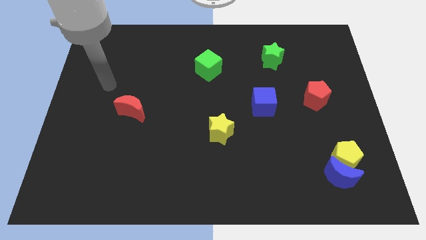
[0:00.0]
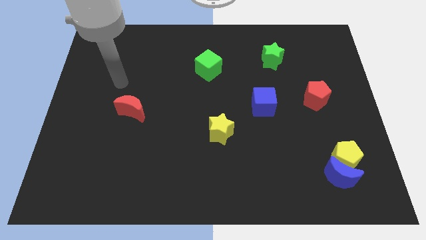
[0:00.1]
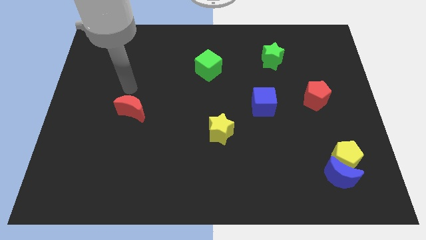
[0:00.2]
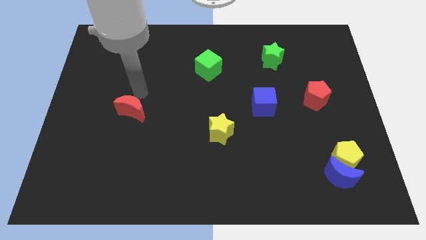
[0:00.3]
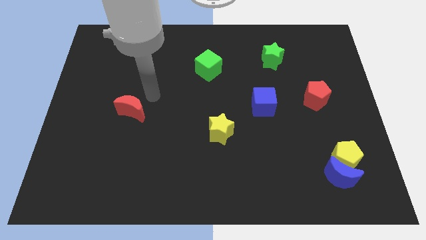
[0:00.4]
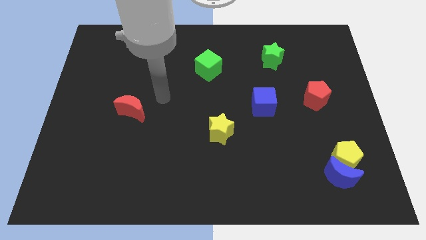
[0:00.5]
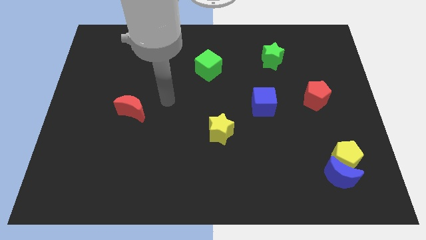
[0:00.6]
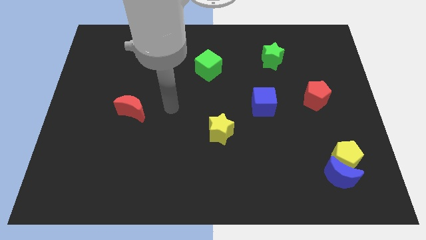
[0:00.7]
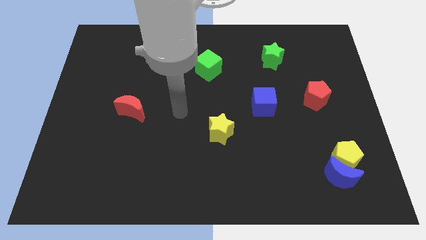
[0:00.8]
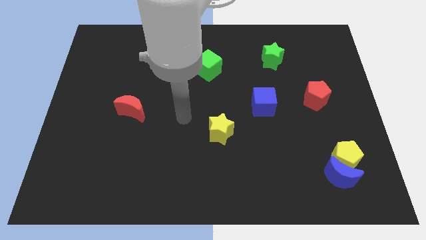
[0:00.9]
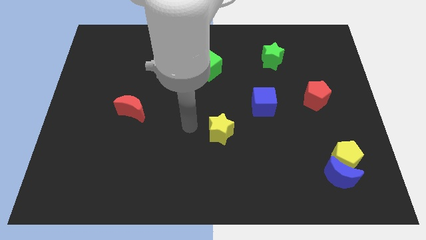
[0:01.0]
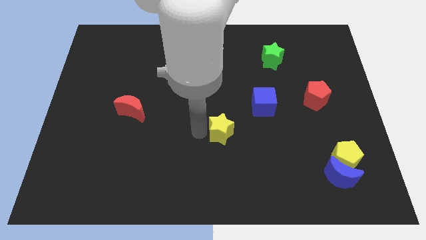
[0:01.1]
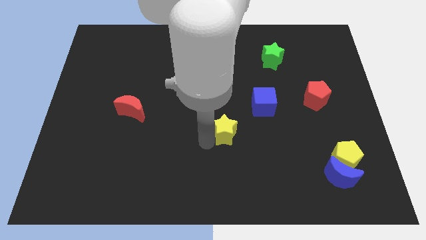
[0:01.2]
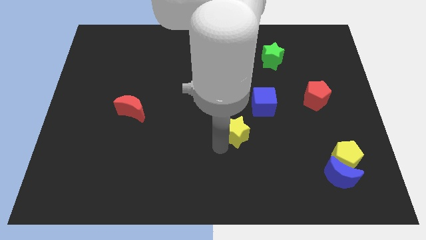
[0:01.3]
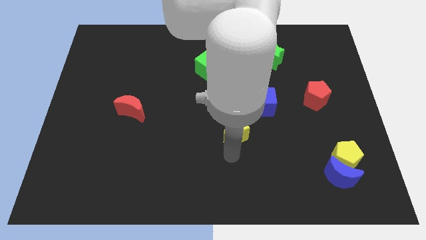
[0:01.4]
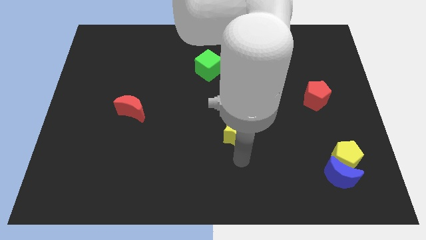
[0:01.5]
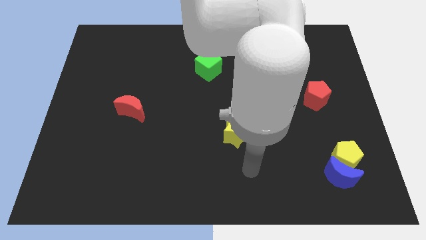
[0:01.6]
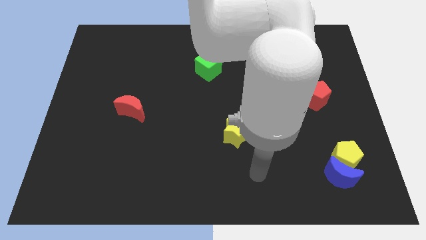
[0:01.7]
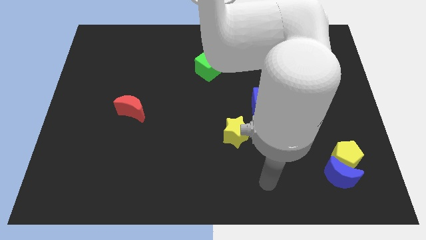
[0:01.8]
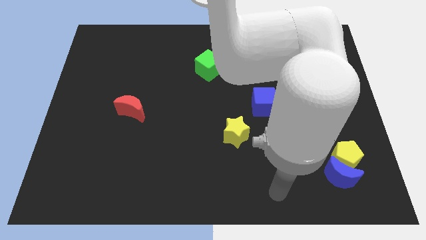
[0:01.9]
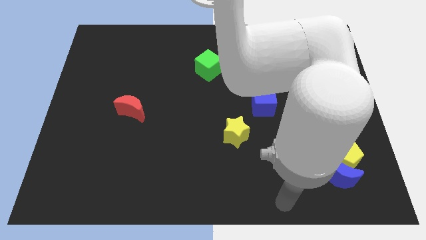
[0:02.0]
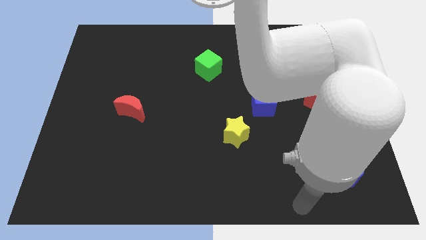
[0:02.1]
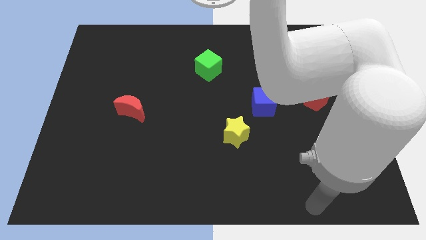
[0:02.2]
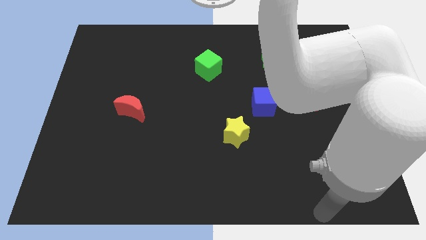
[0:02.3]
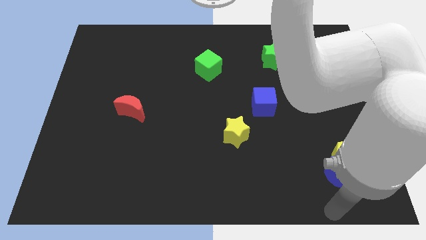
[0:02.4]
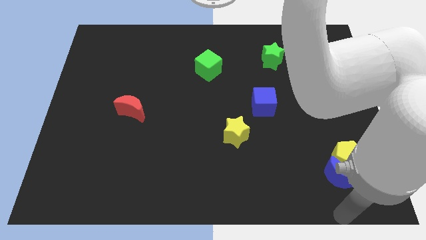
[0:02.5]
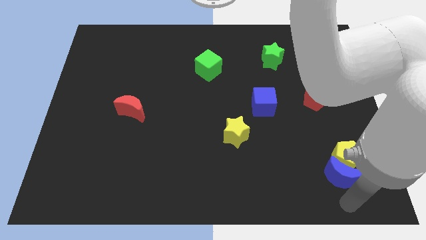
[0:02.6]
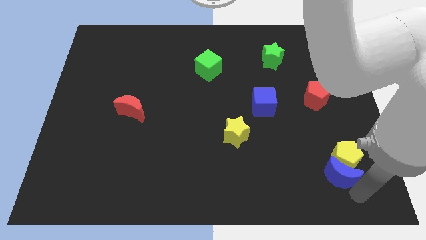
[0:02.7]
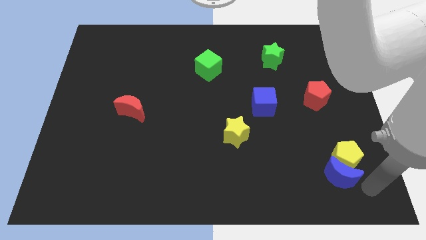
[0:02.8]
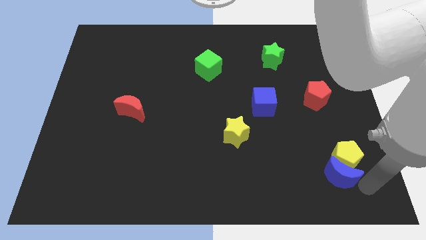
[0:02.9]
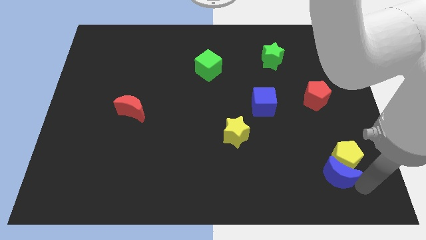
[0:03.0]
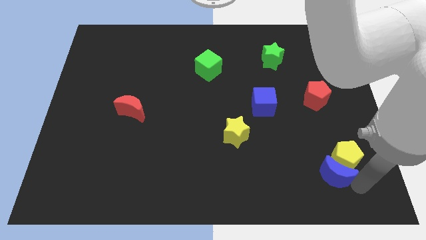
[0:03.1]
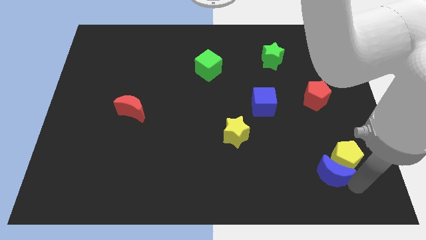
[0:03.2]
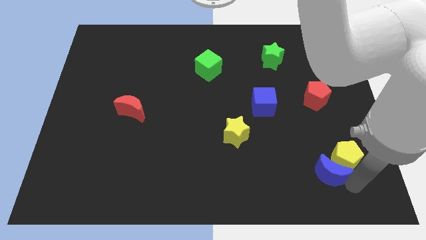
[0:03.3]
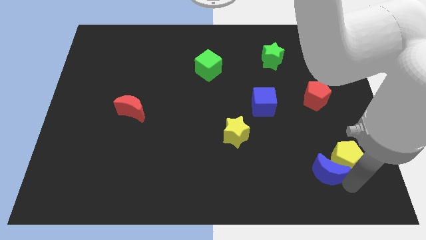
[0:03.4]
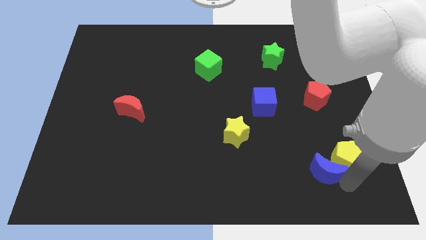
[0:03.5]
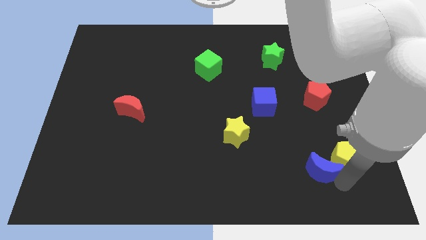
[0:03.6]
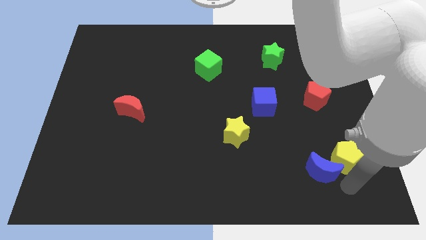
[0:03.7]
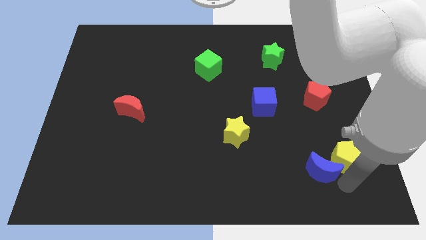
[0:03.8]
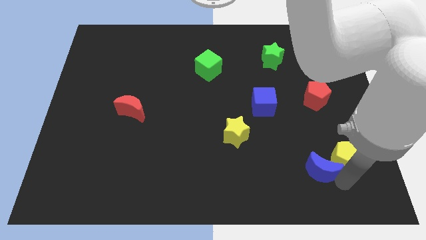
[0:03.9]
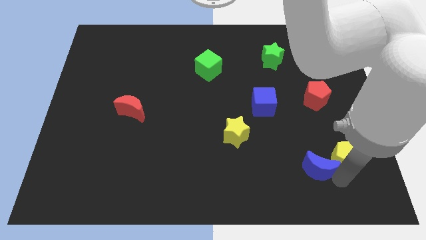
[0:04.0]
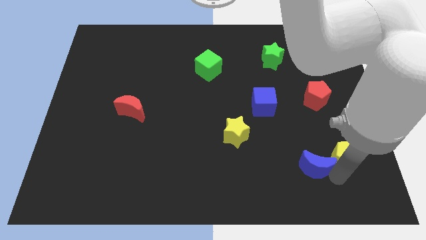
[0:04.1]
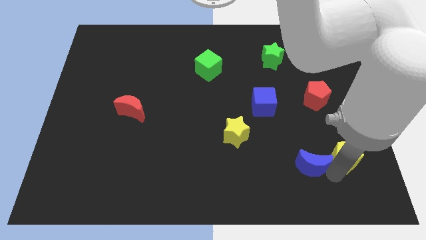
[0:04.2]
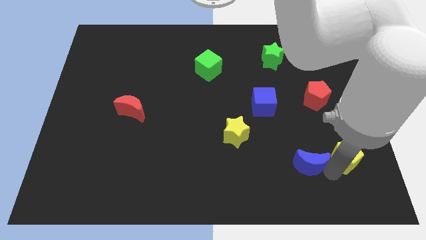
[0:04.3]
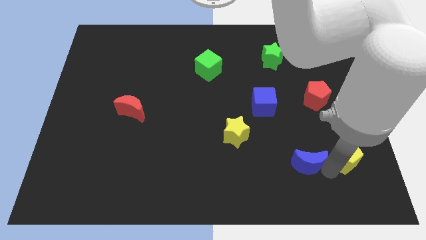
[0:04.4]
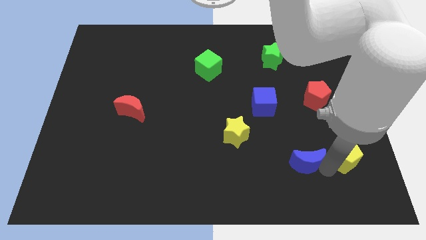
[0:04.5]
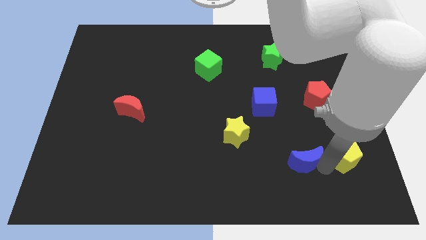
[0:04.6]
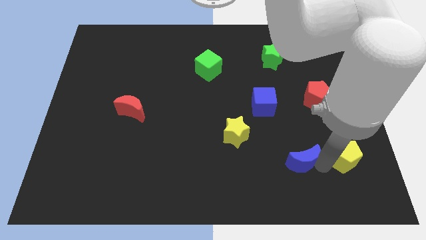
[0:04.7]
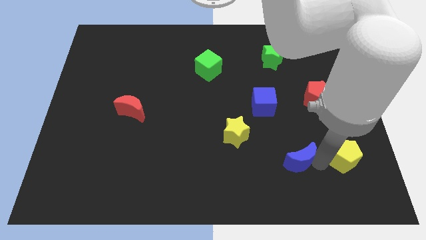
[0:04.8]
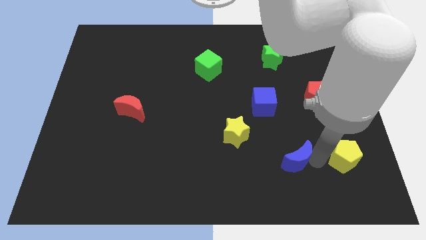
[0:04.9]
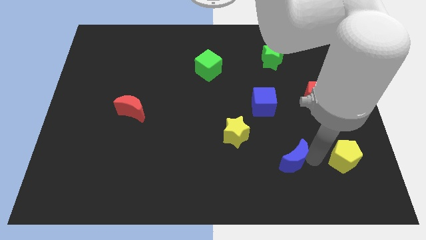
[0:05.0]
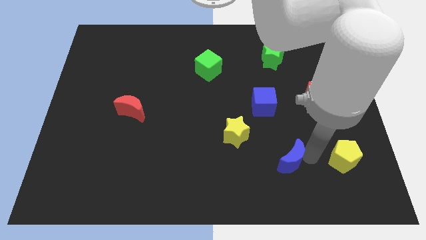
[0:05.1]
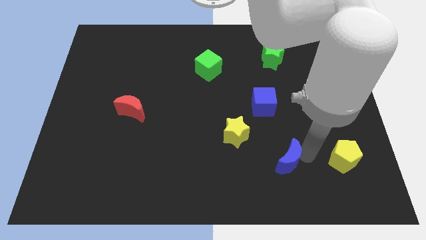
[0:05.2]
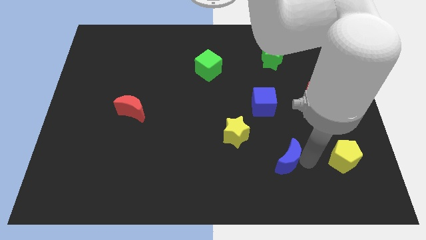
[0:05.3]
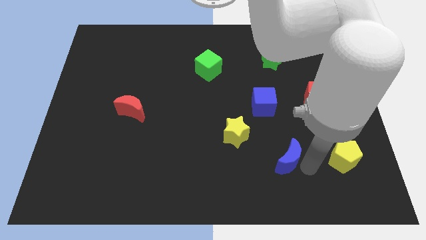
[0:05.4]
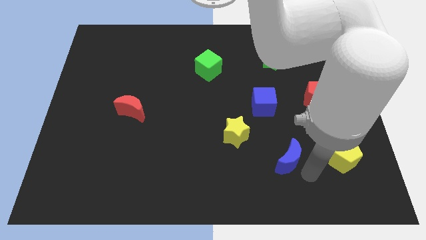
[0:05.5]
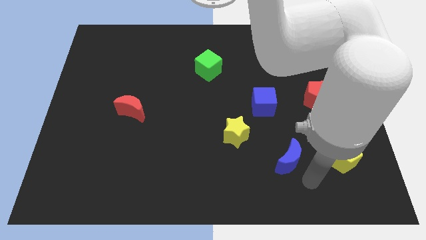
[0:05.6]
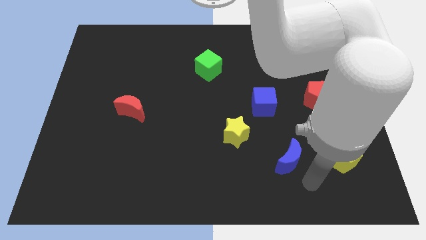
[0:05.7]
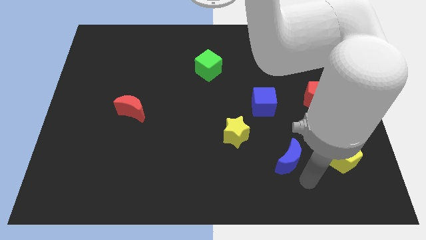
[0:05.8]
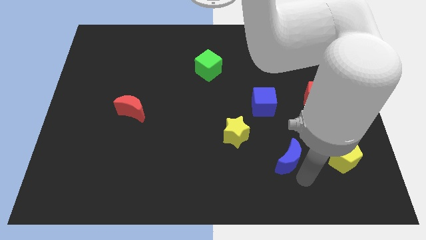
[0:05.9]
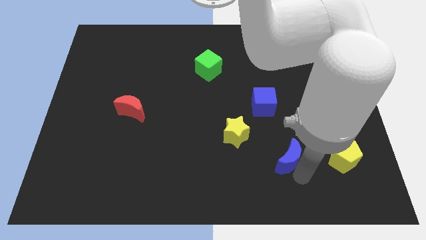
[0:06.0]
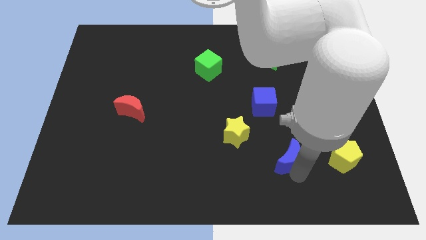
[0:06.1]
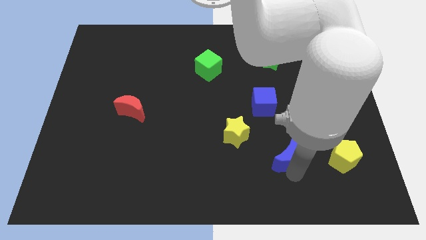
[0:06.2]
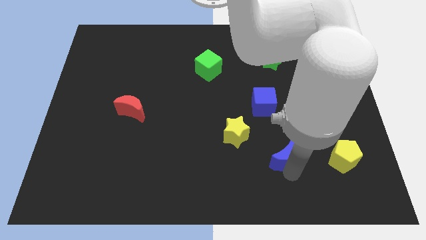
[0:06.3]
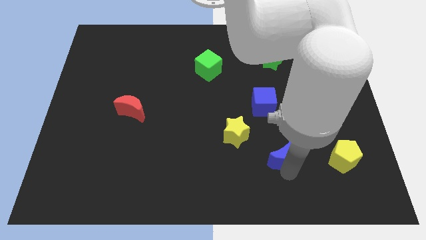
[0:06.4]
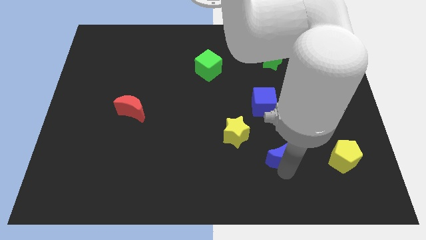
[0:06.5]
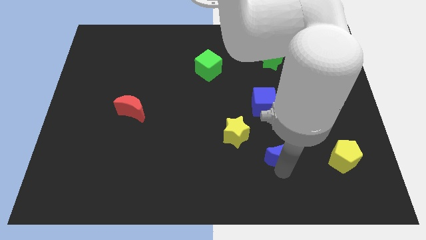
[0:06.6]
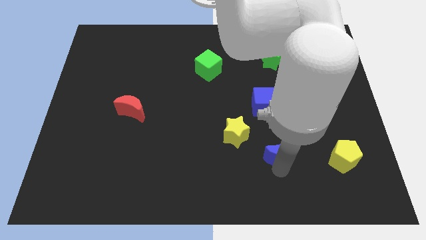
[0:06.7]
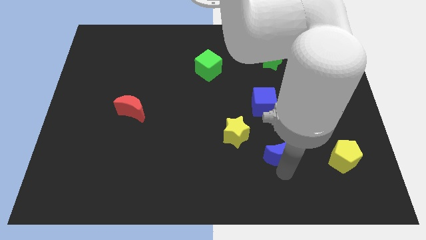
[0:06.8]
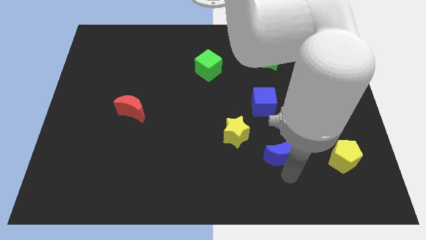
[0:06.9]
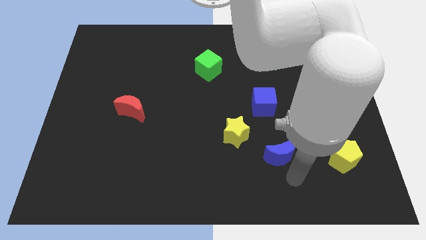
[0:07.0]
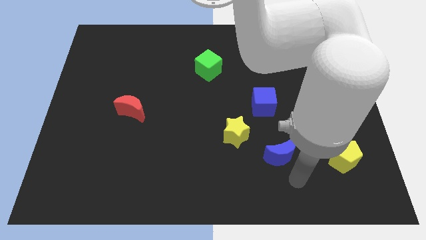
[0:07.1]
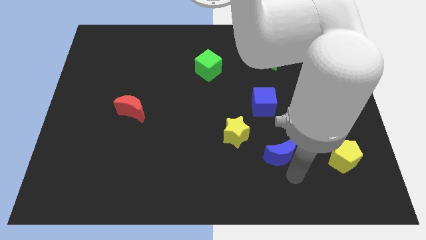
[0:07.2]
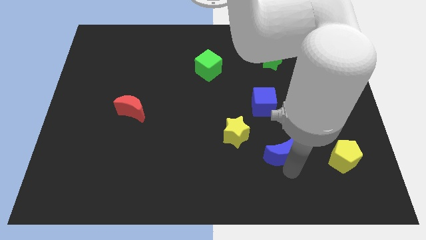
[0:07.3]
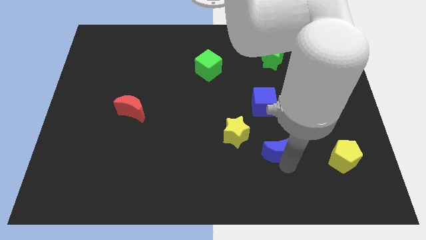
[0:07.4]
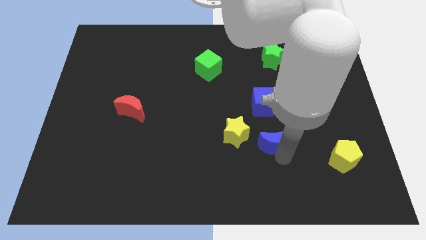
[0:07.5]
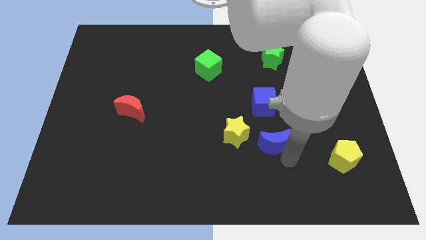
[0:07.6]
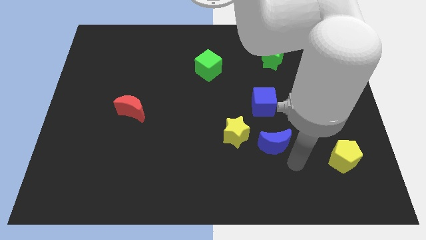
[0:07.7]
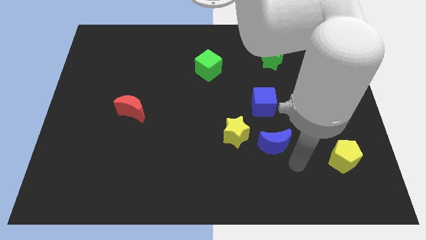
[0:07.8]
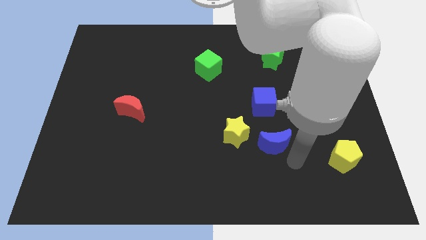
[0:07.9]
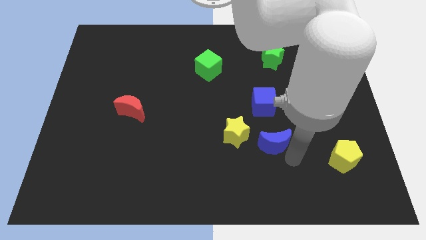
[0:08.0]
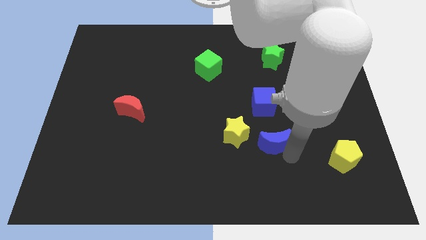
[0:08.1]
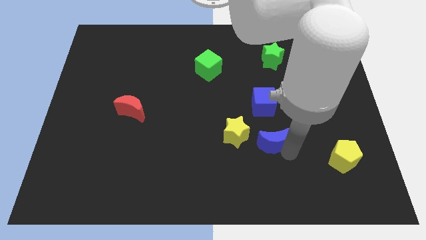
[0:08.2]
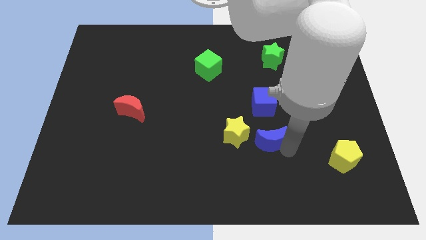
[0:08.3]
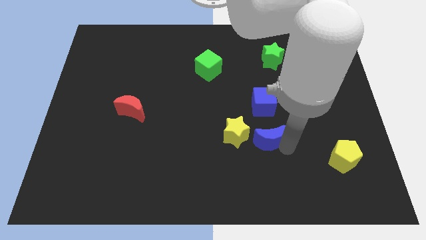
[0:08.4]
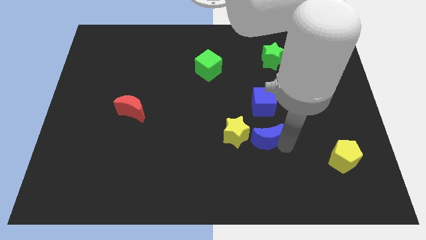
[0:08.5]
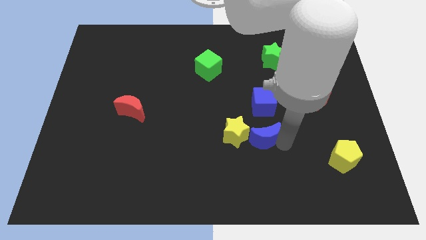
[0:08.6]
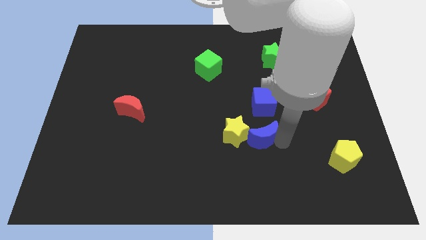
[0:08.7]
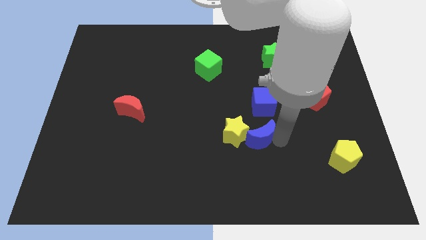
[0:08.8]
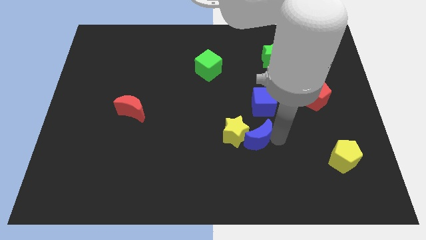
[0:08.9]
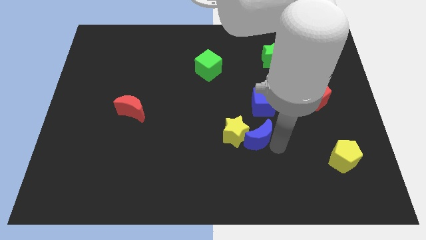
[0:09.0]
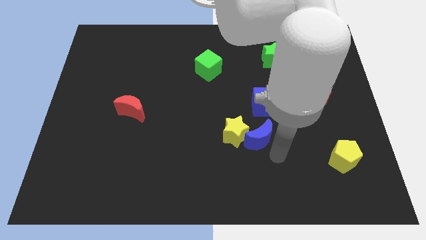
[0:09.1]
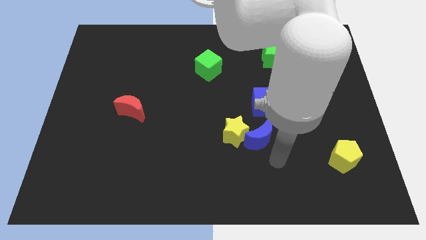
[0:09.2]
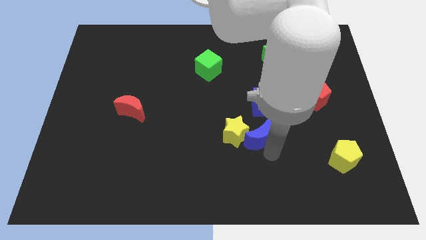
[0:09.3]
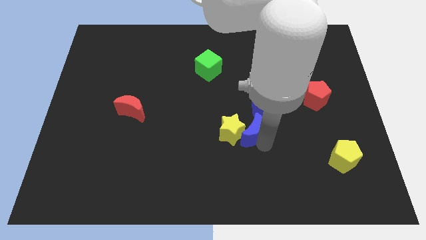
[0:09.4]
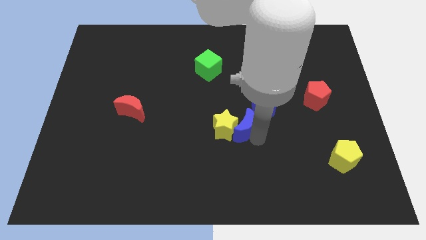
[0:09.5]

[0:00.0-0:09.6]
push the blue moon diagonally up and to the left
